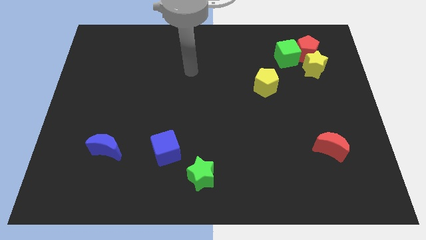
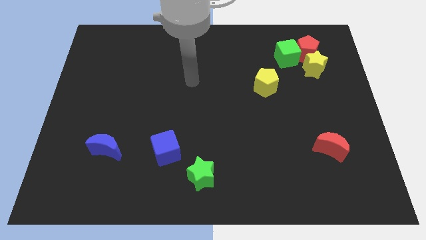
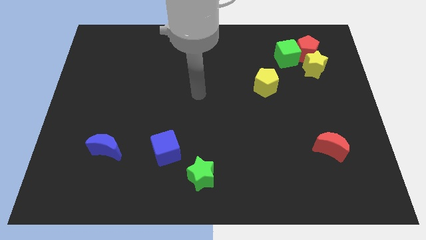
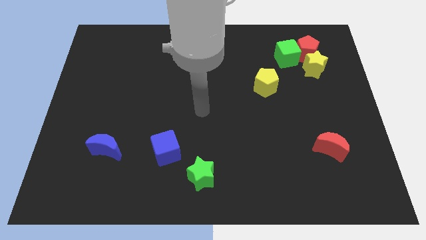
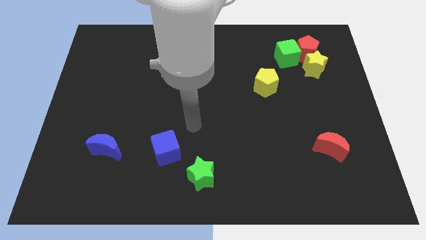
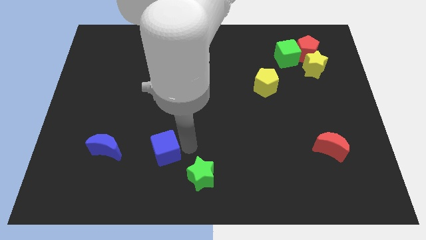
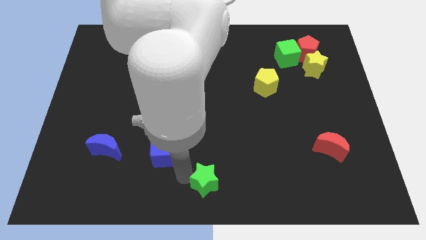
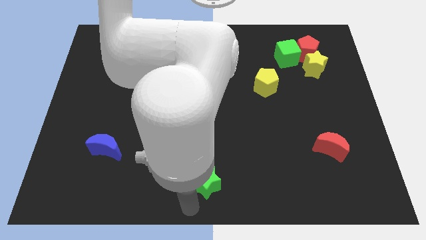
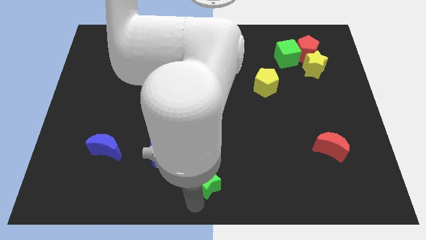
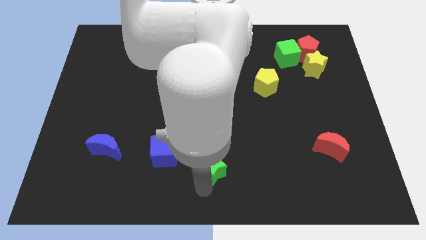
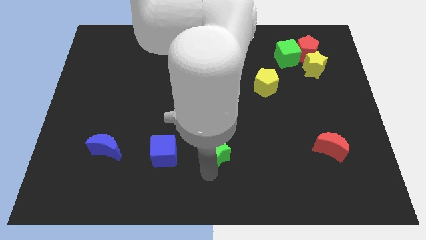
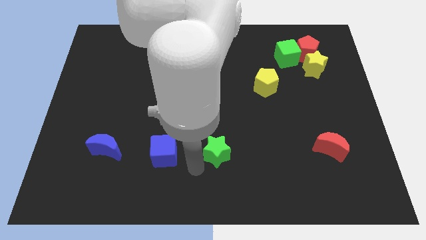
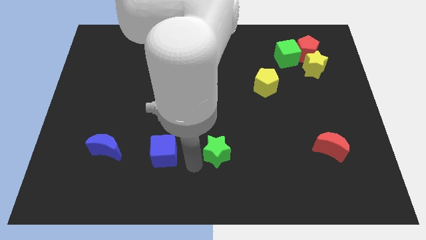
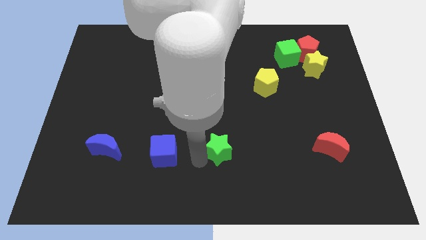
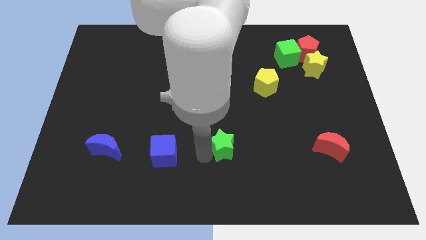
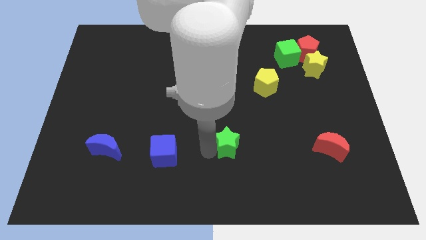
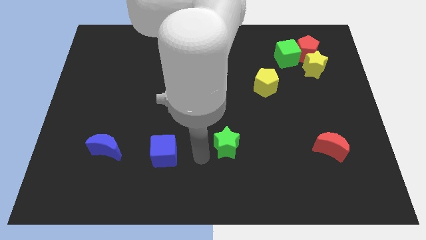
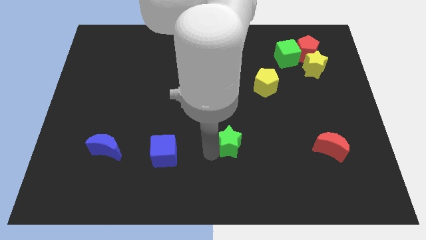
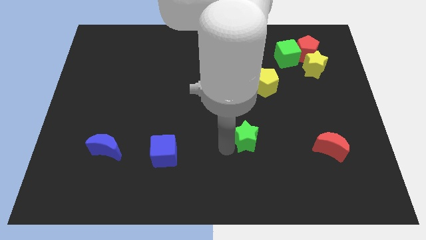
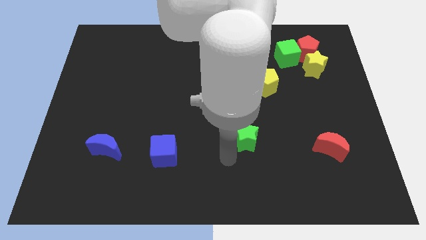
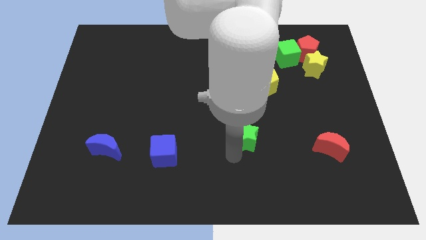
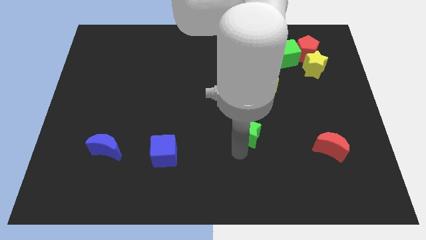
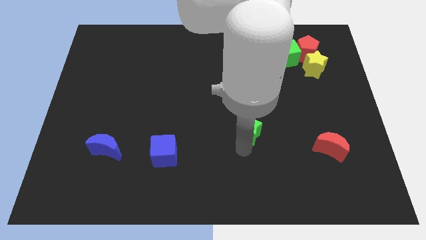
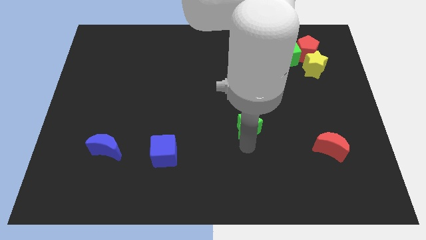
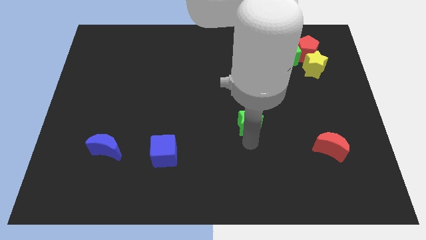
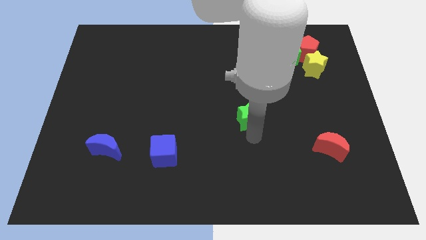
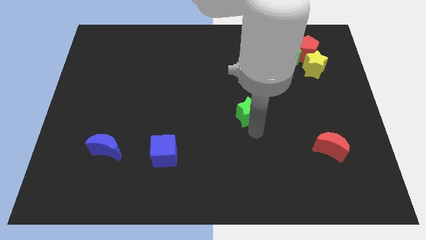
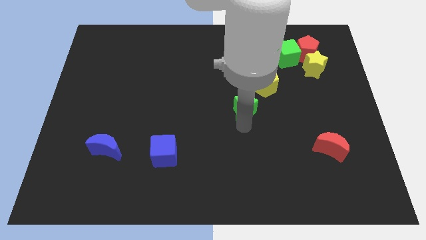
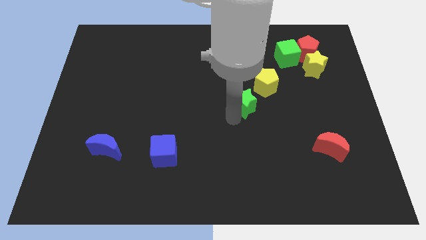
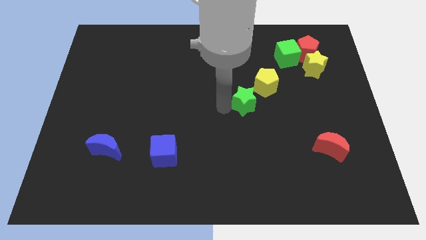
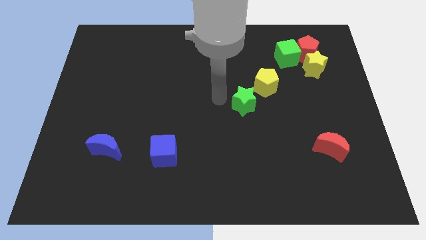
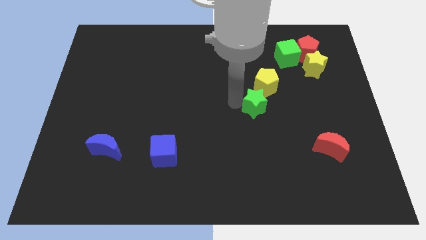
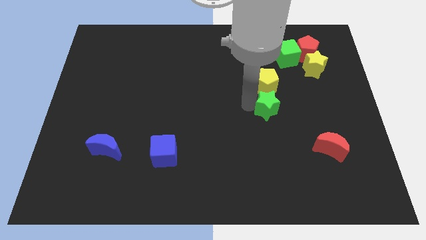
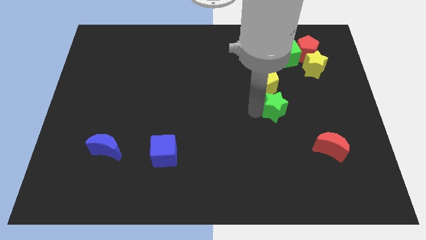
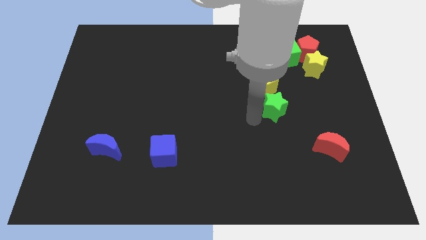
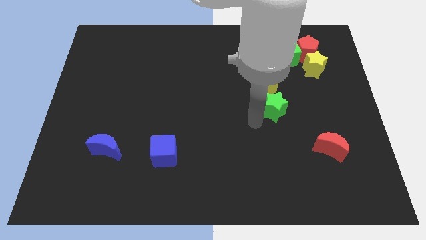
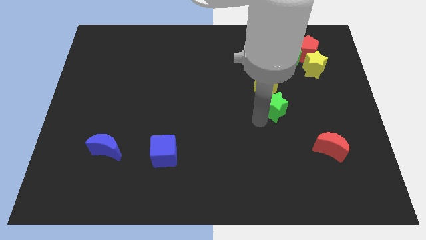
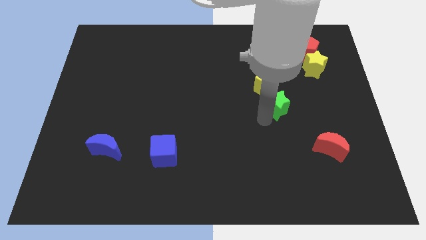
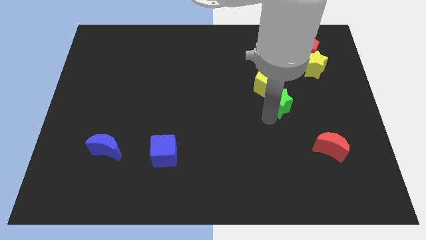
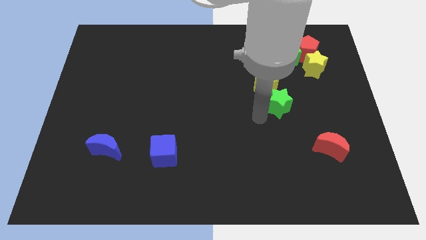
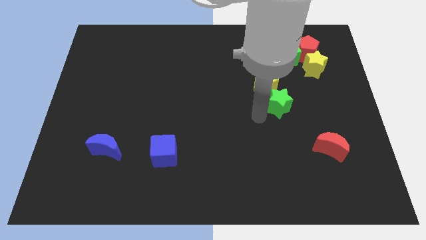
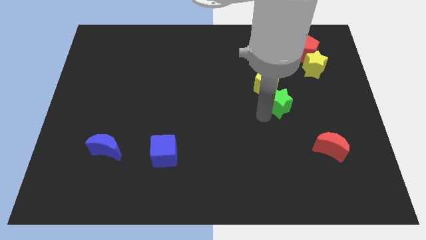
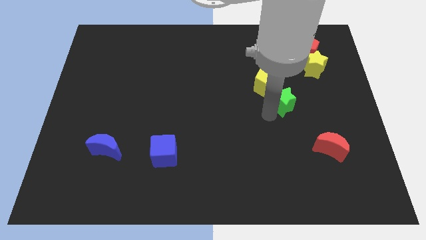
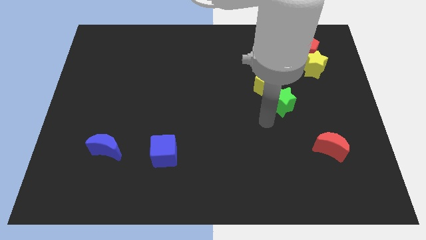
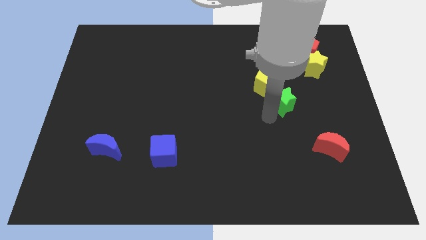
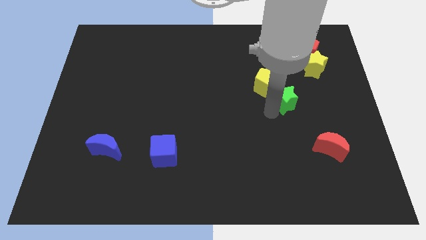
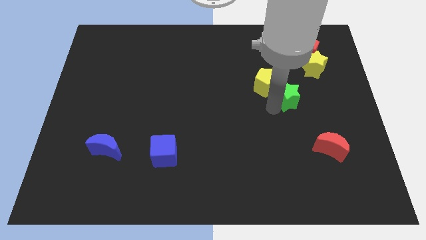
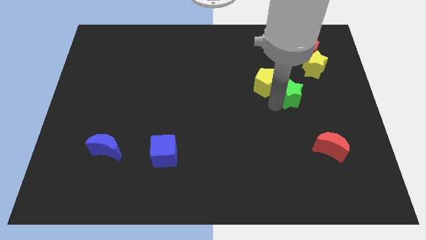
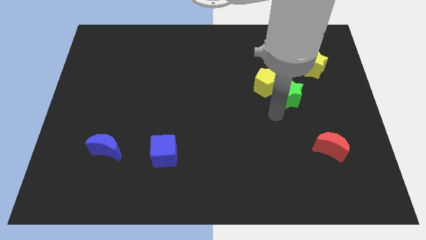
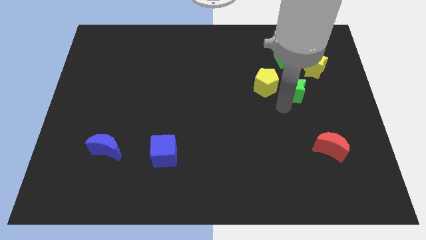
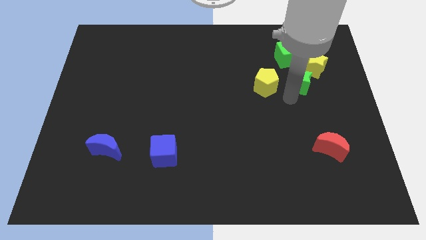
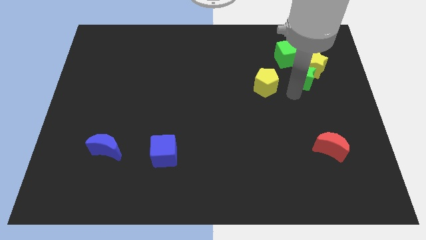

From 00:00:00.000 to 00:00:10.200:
put the green star to the yellow star

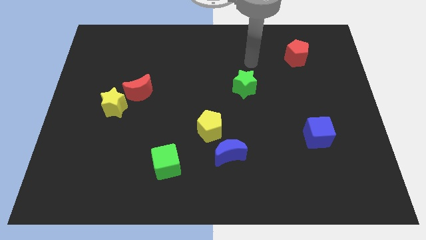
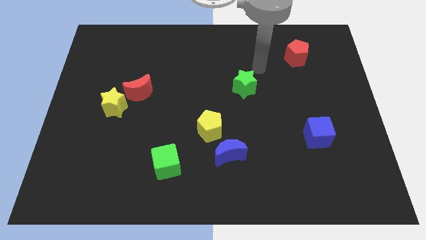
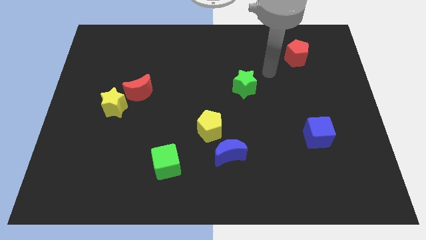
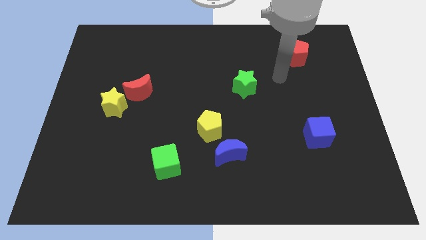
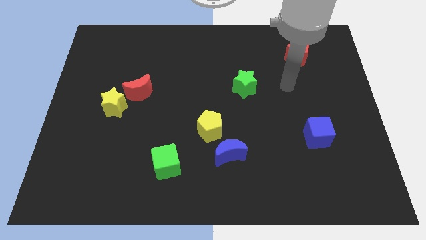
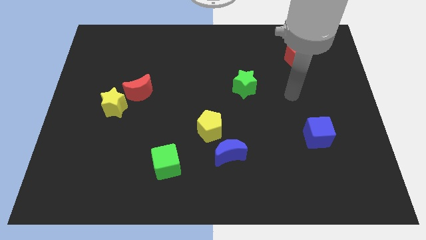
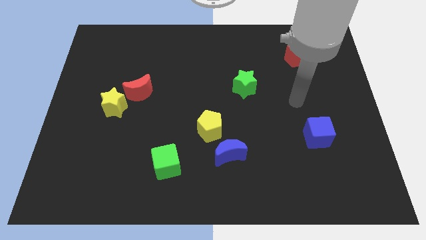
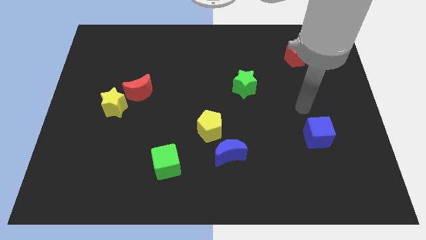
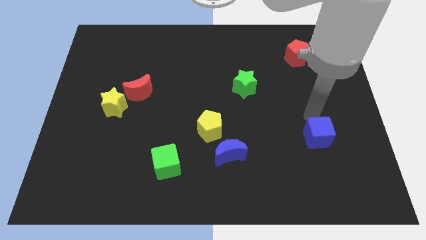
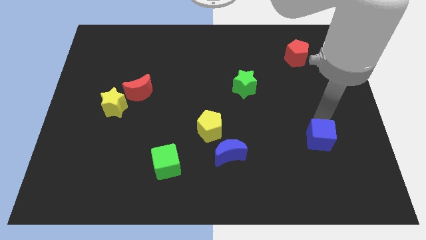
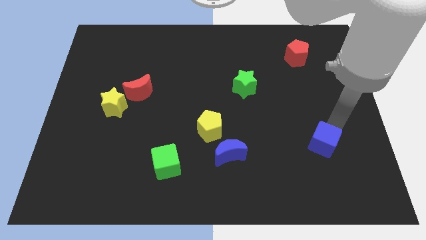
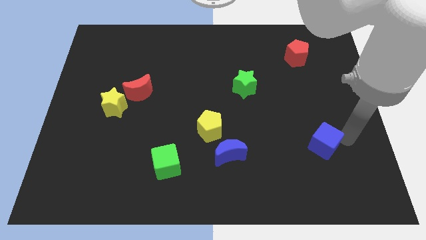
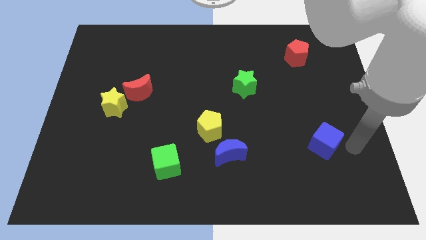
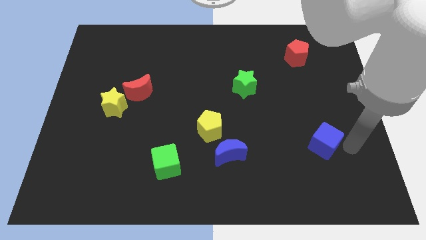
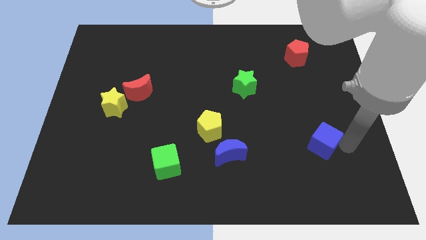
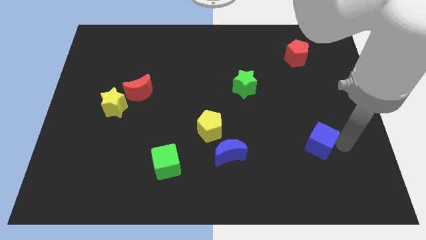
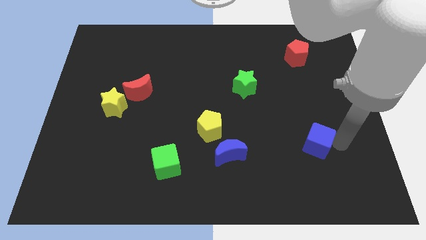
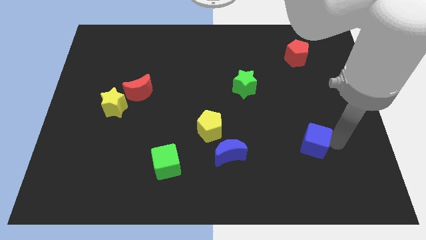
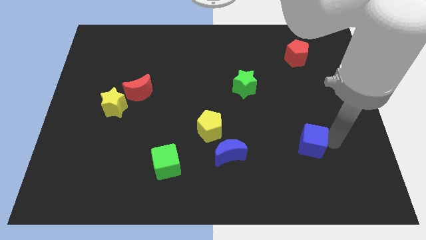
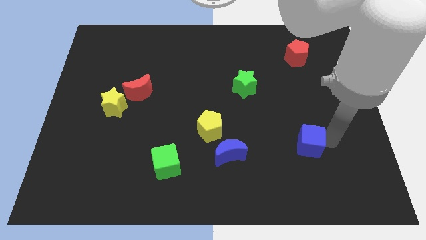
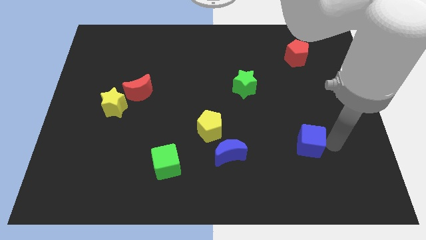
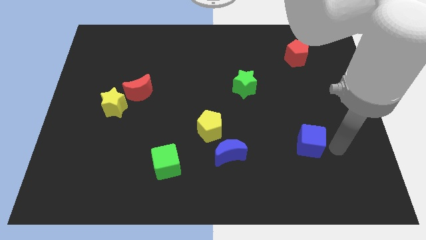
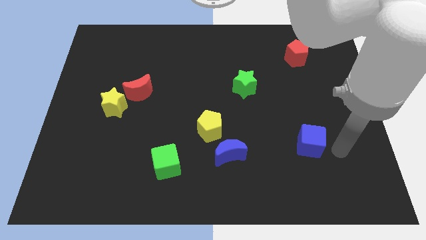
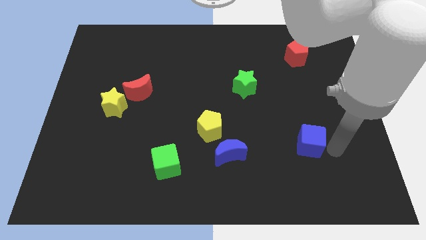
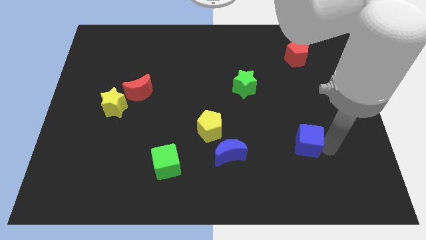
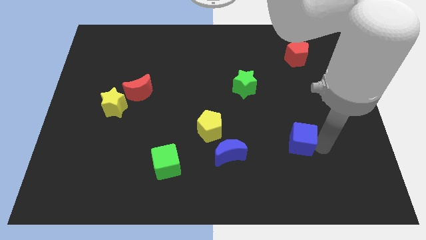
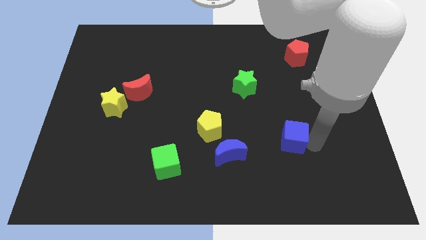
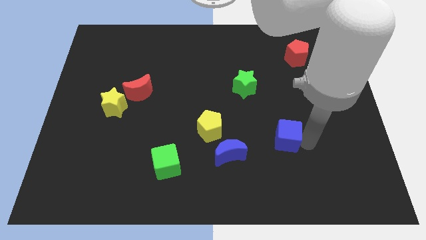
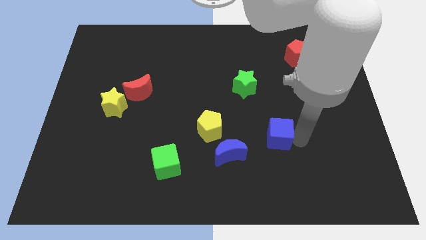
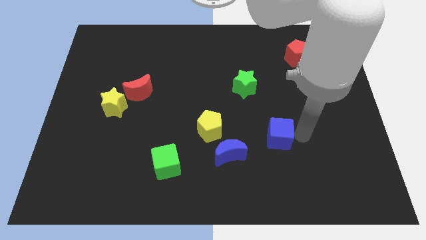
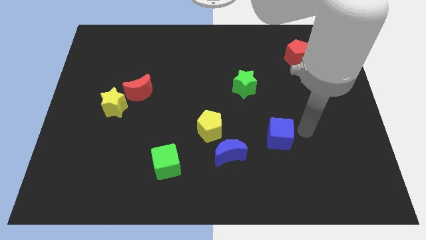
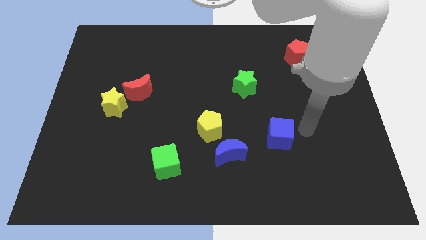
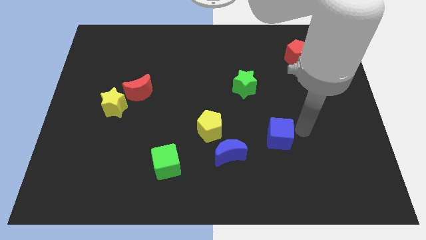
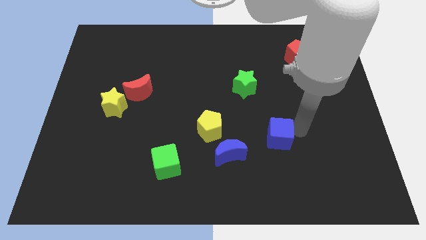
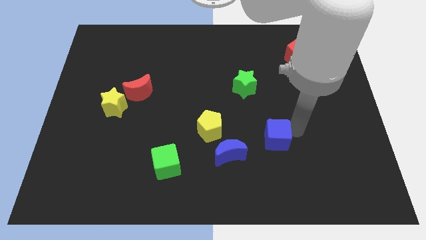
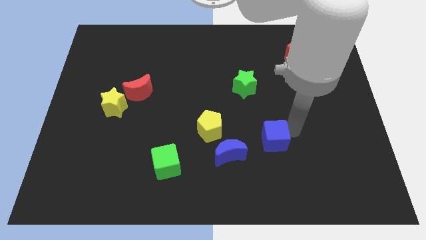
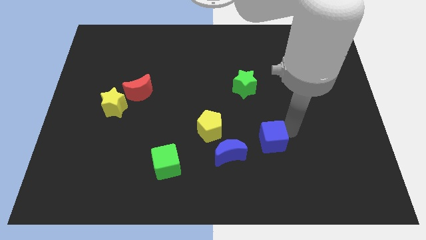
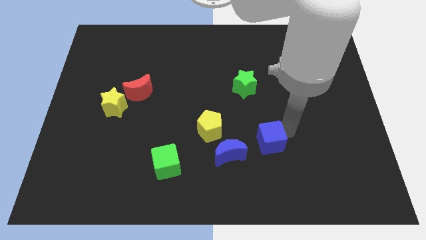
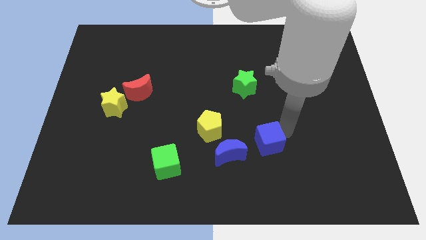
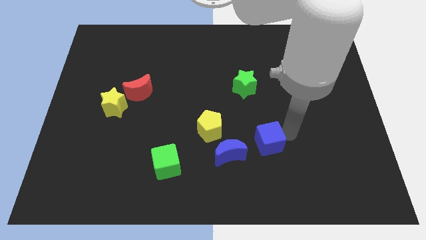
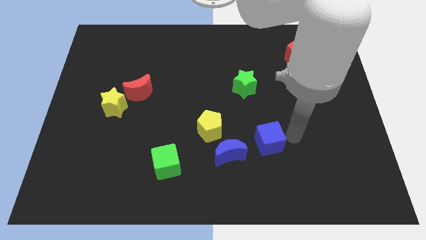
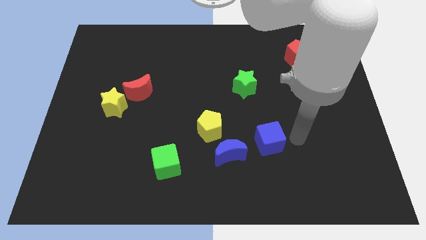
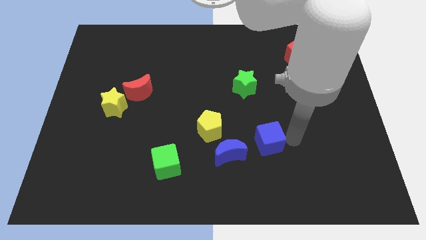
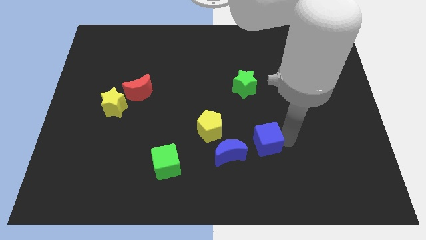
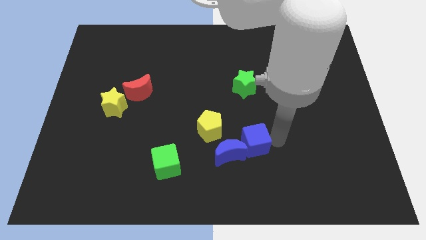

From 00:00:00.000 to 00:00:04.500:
push the blue cube close to the blue moon
